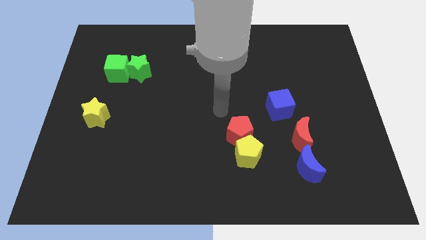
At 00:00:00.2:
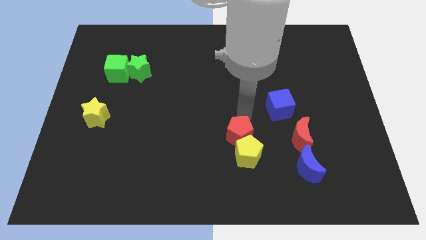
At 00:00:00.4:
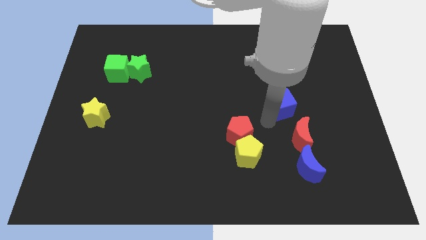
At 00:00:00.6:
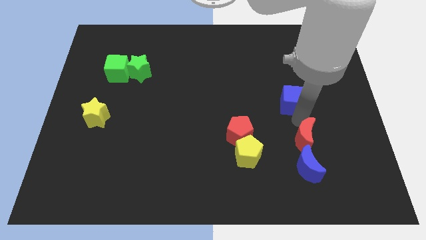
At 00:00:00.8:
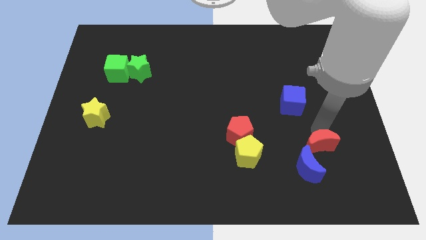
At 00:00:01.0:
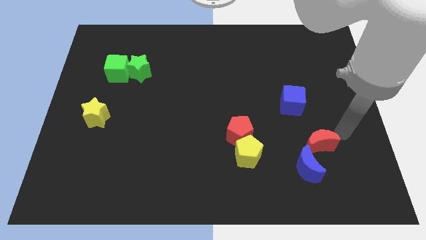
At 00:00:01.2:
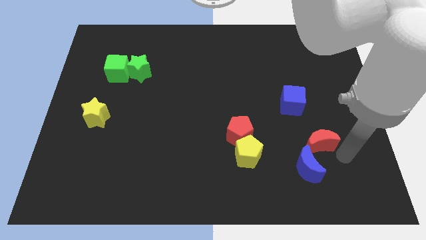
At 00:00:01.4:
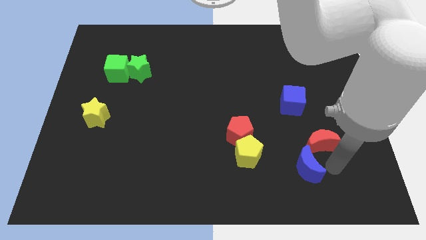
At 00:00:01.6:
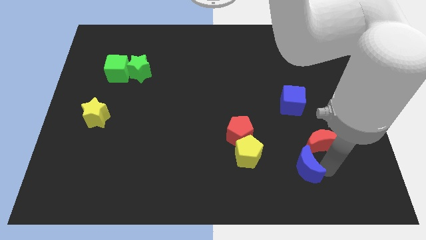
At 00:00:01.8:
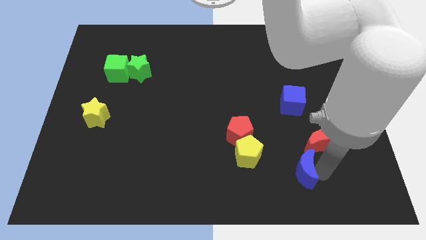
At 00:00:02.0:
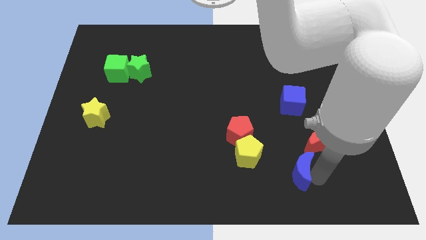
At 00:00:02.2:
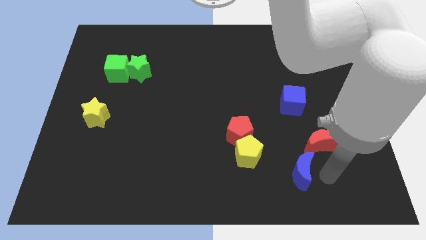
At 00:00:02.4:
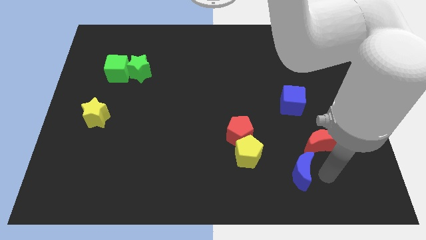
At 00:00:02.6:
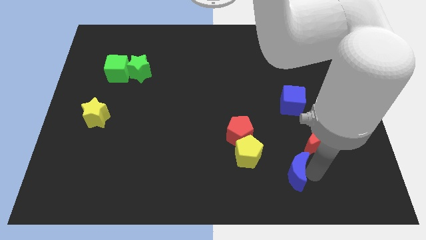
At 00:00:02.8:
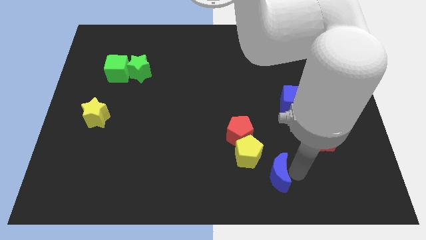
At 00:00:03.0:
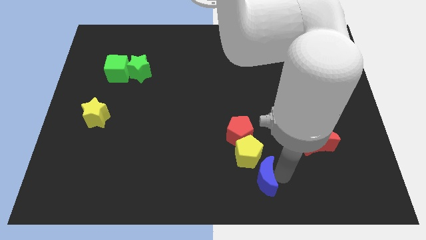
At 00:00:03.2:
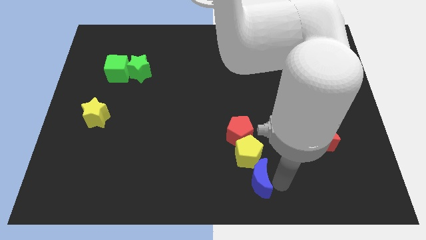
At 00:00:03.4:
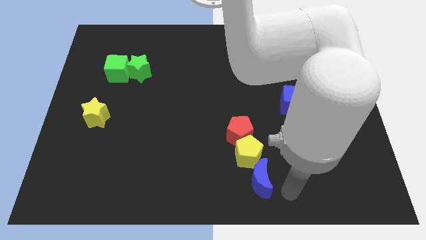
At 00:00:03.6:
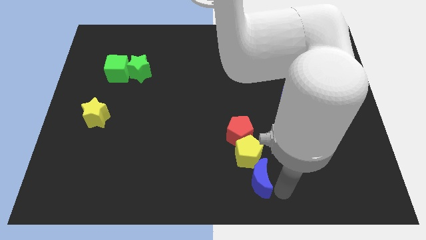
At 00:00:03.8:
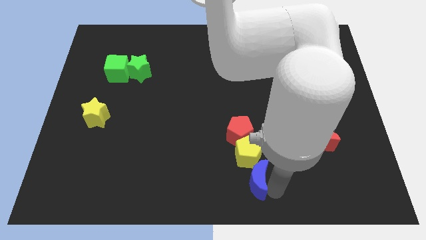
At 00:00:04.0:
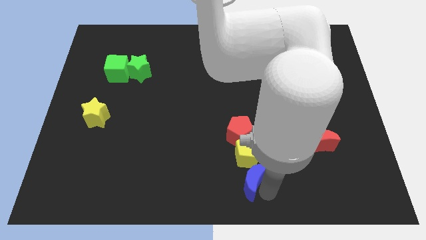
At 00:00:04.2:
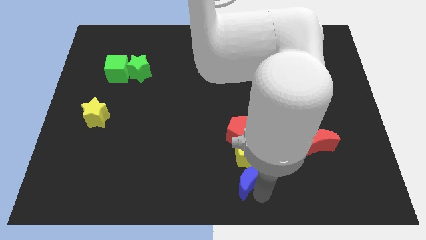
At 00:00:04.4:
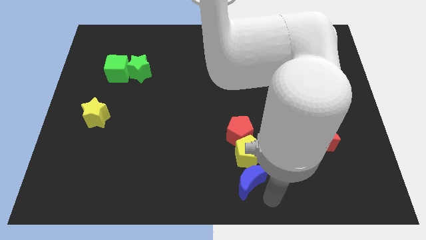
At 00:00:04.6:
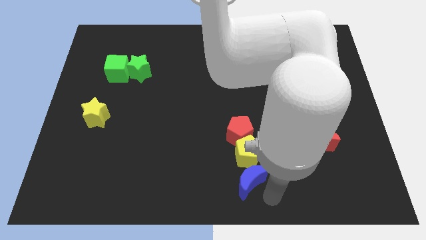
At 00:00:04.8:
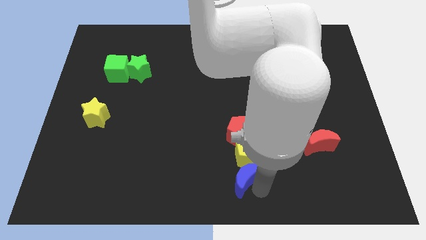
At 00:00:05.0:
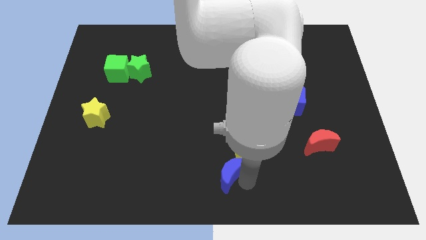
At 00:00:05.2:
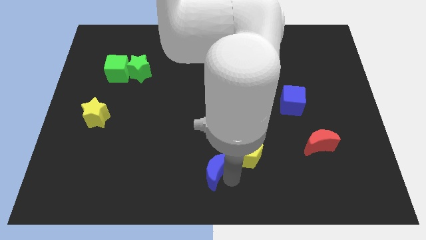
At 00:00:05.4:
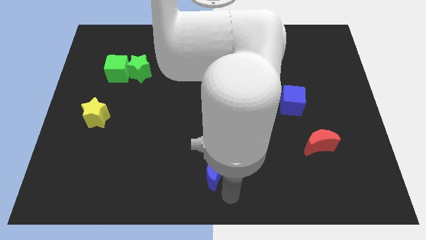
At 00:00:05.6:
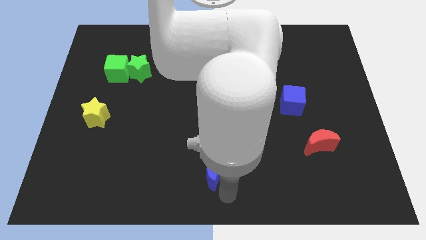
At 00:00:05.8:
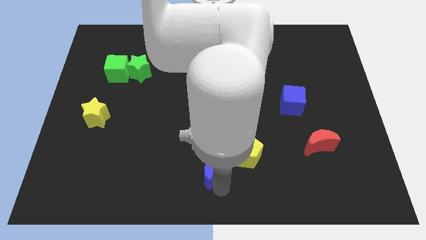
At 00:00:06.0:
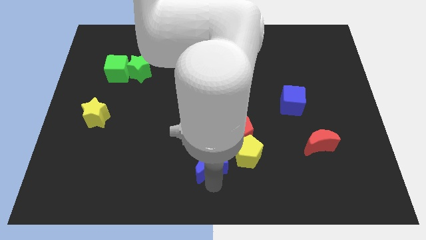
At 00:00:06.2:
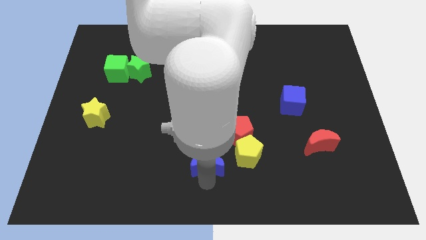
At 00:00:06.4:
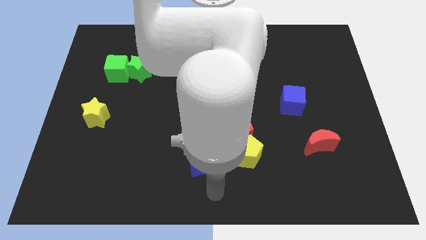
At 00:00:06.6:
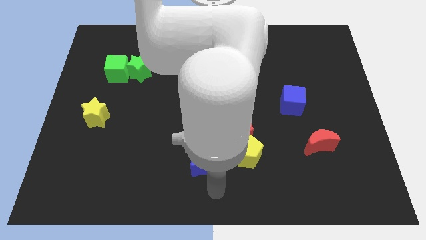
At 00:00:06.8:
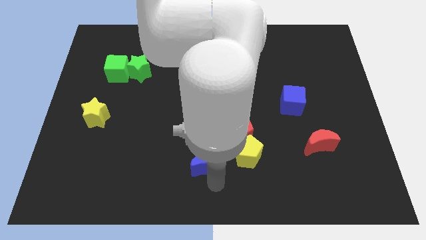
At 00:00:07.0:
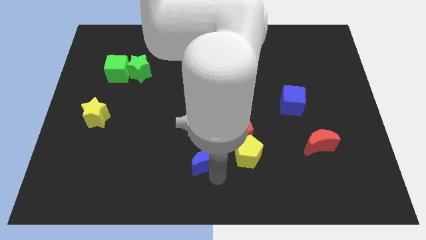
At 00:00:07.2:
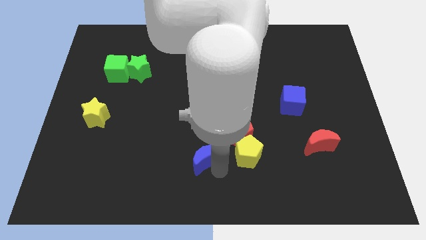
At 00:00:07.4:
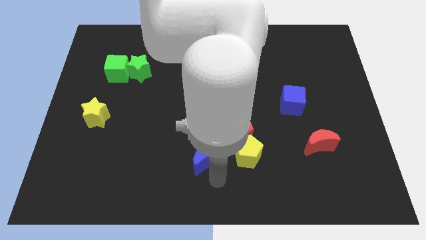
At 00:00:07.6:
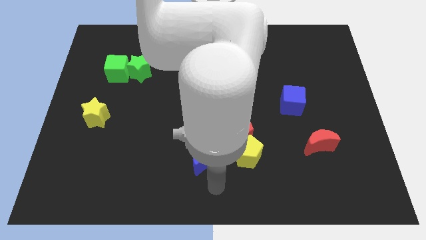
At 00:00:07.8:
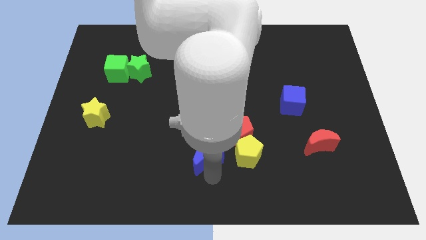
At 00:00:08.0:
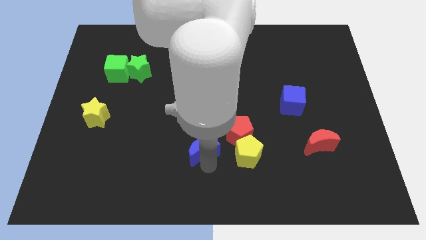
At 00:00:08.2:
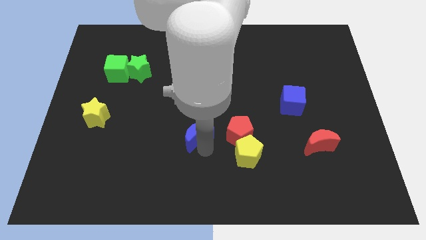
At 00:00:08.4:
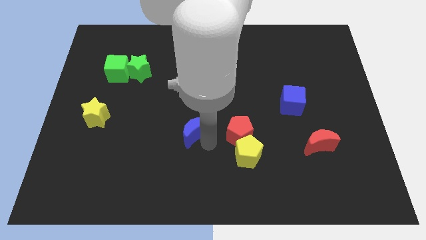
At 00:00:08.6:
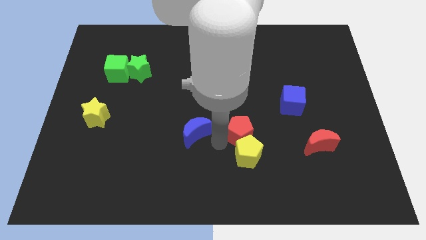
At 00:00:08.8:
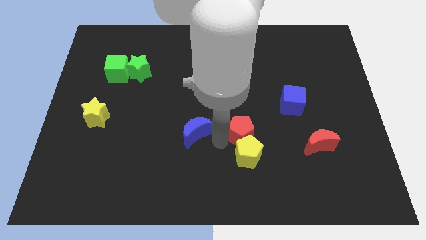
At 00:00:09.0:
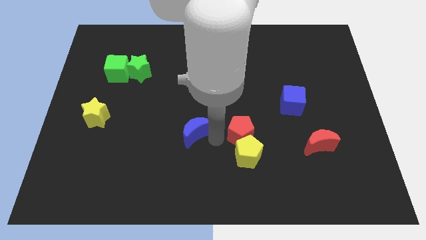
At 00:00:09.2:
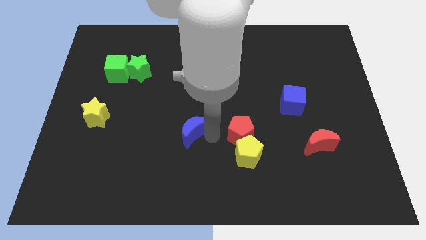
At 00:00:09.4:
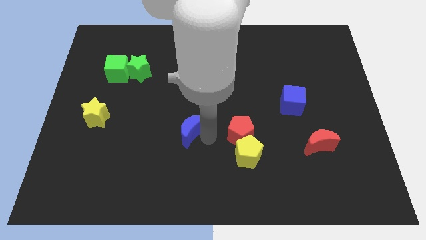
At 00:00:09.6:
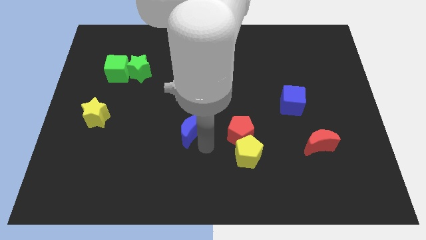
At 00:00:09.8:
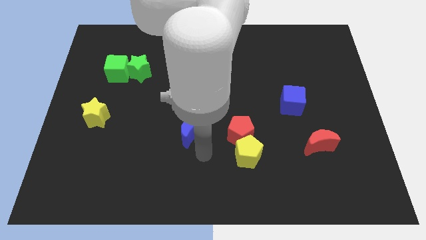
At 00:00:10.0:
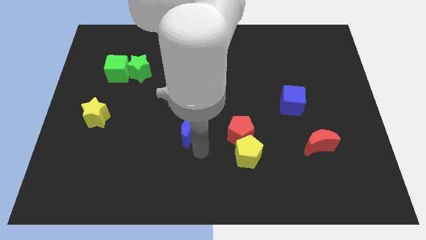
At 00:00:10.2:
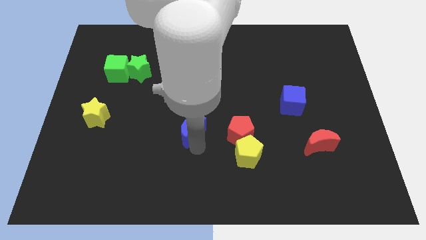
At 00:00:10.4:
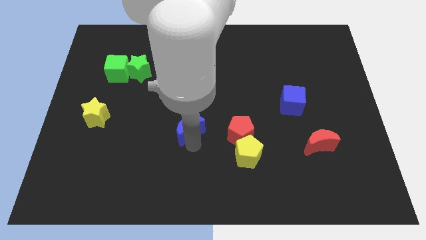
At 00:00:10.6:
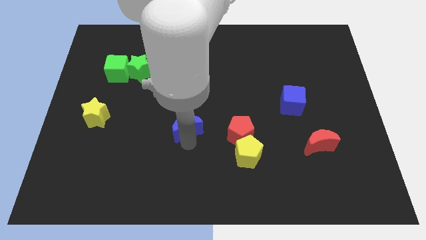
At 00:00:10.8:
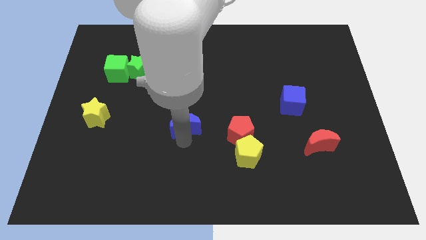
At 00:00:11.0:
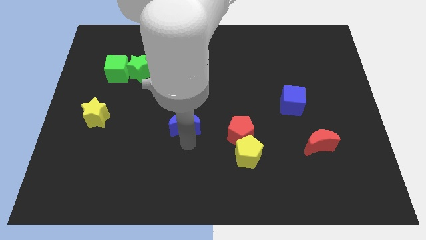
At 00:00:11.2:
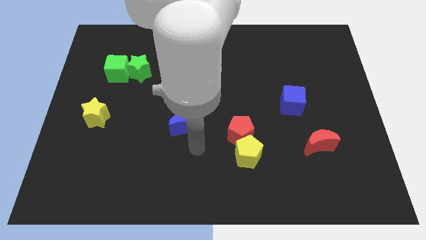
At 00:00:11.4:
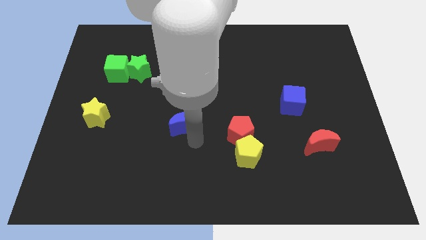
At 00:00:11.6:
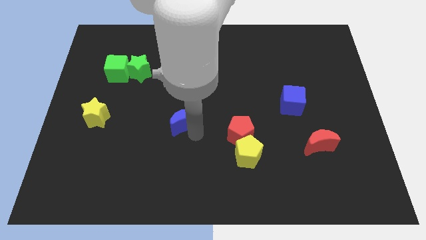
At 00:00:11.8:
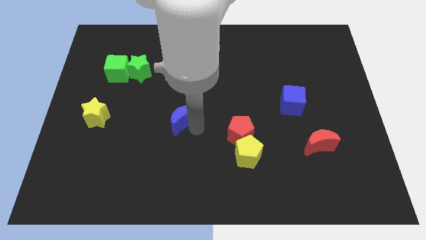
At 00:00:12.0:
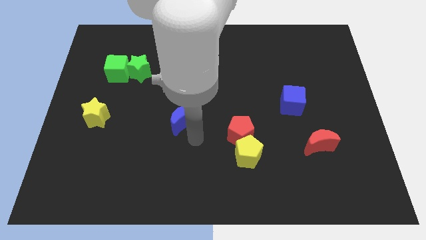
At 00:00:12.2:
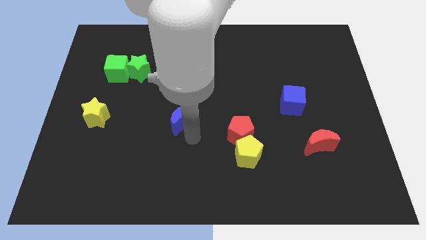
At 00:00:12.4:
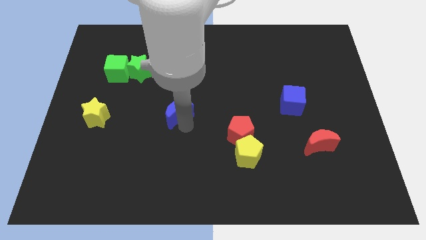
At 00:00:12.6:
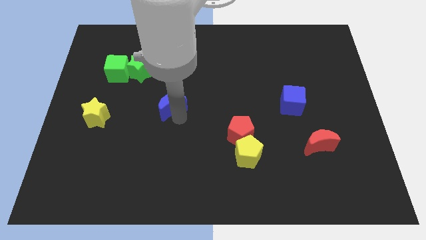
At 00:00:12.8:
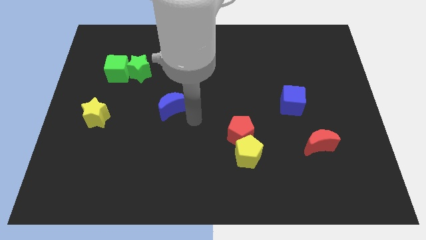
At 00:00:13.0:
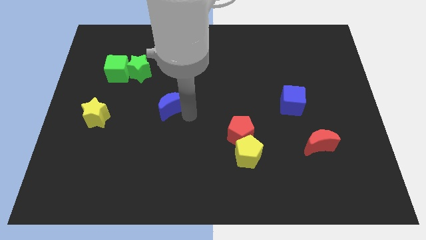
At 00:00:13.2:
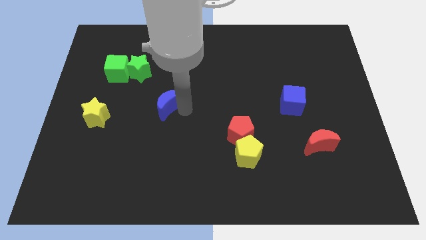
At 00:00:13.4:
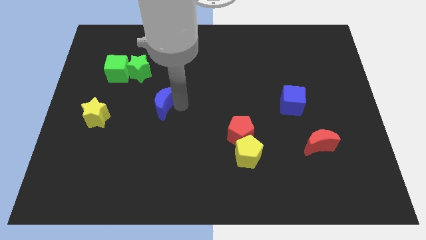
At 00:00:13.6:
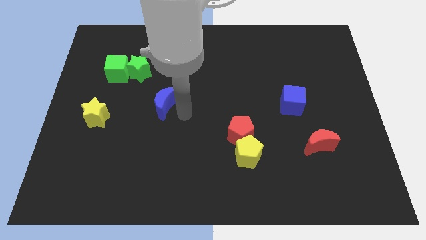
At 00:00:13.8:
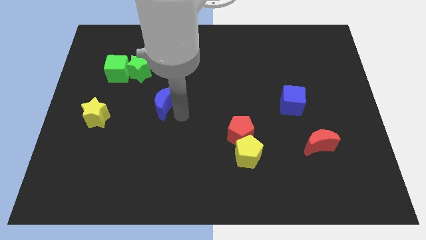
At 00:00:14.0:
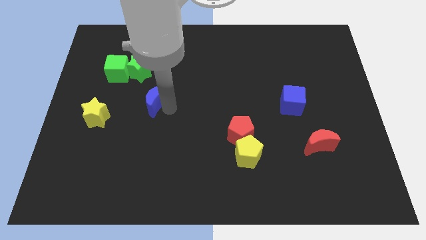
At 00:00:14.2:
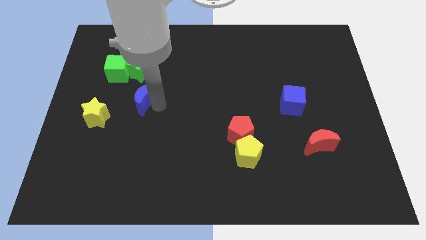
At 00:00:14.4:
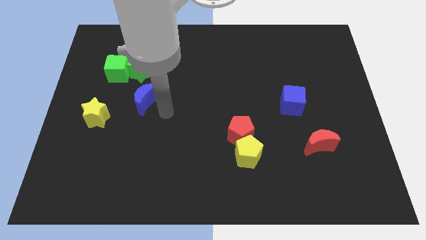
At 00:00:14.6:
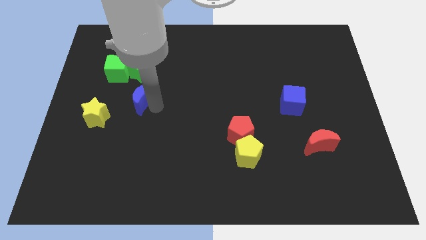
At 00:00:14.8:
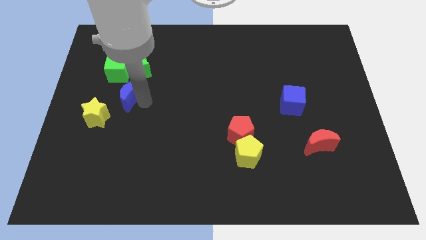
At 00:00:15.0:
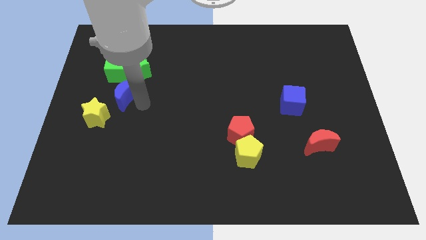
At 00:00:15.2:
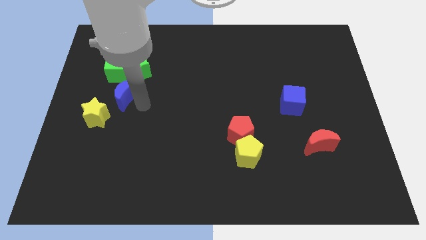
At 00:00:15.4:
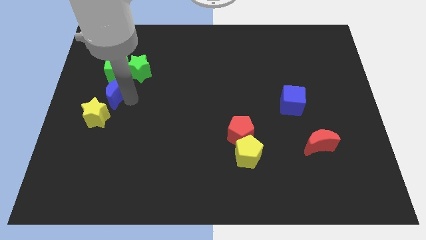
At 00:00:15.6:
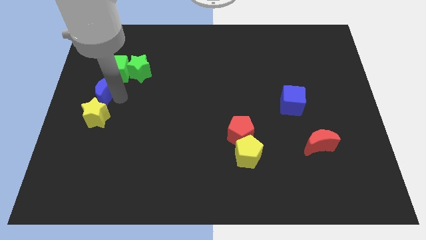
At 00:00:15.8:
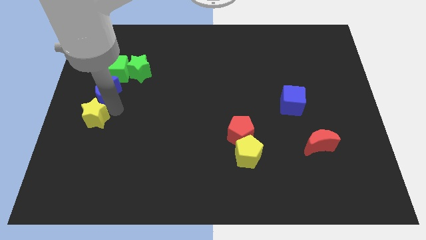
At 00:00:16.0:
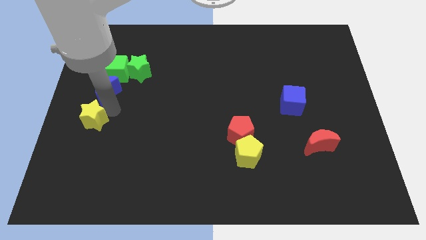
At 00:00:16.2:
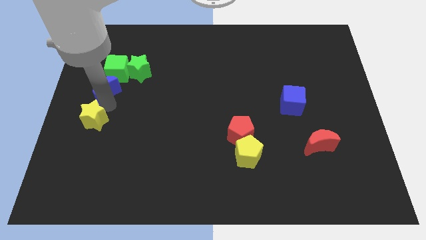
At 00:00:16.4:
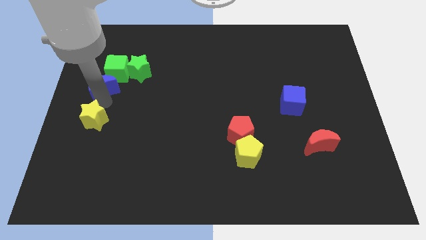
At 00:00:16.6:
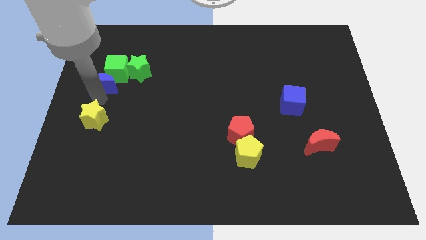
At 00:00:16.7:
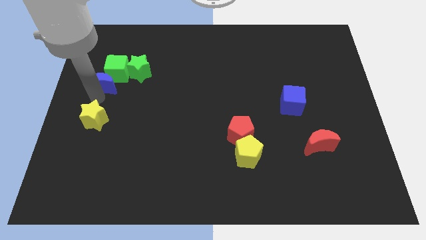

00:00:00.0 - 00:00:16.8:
push the blue moon left of the green star
